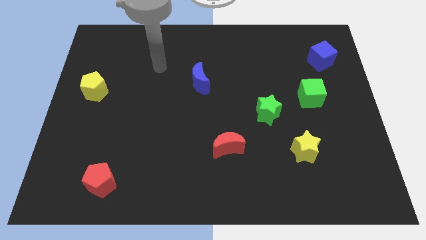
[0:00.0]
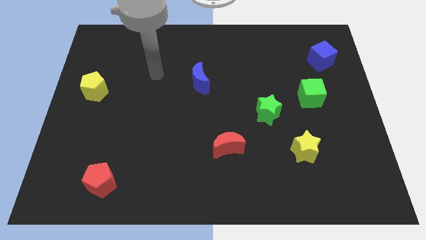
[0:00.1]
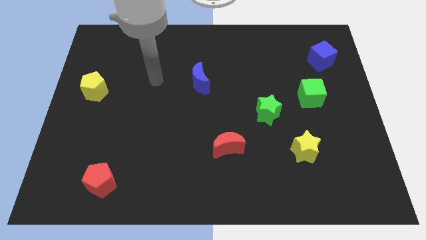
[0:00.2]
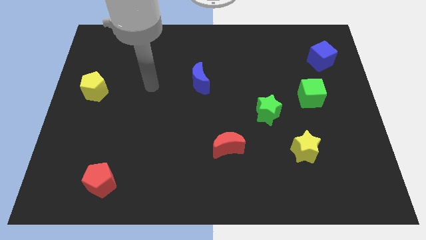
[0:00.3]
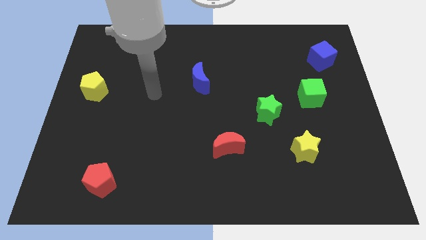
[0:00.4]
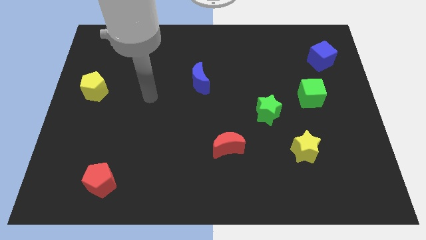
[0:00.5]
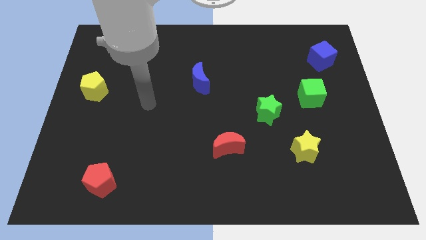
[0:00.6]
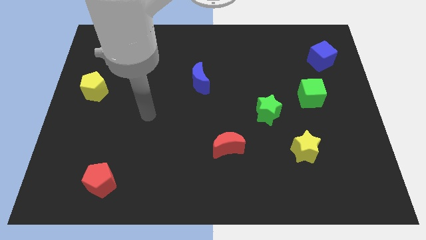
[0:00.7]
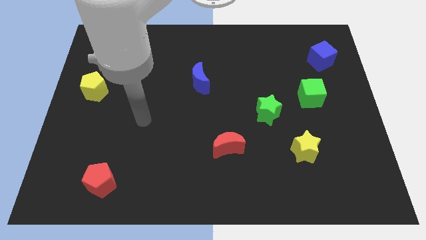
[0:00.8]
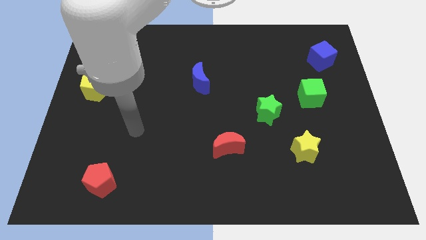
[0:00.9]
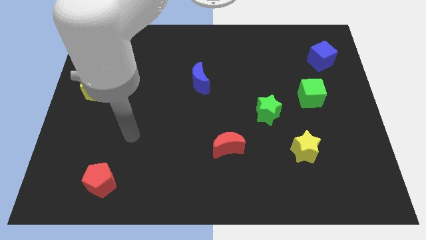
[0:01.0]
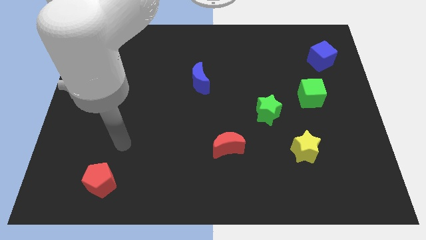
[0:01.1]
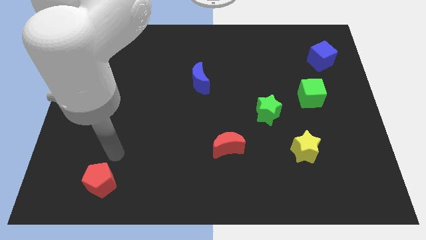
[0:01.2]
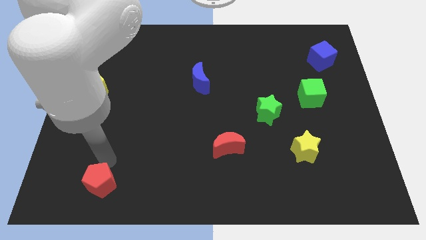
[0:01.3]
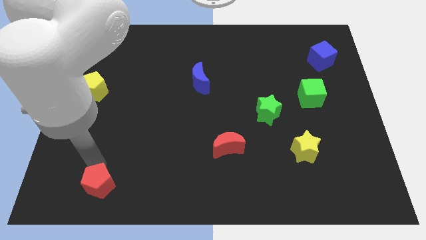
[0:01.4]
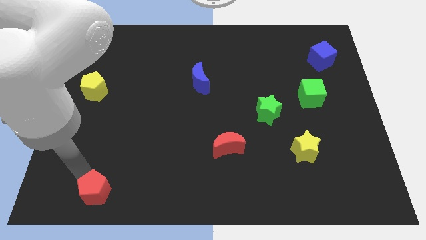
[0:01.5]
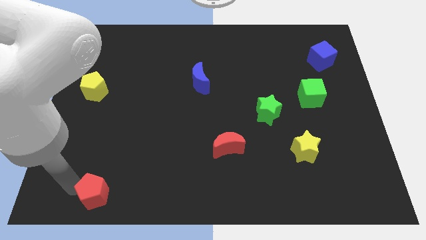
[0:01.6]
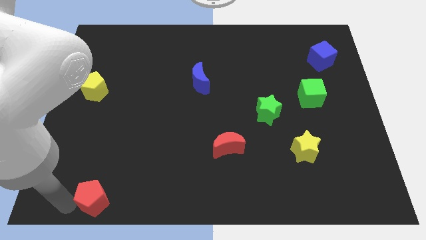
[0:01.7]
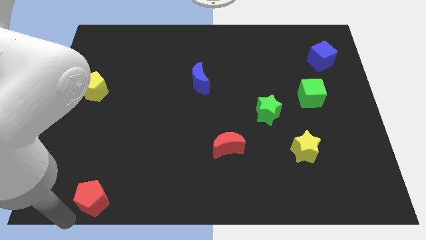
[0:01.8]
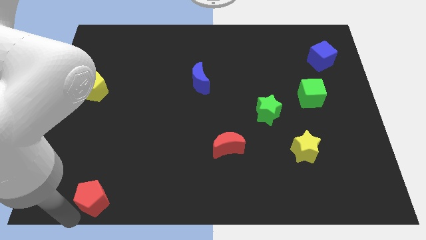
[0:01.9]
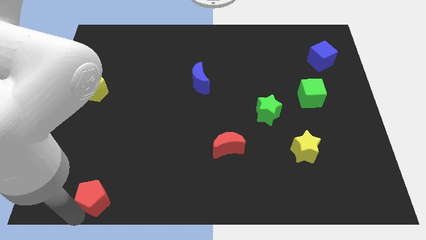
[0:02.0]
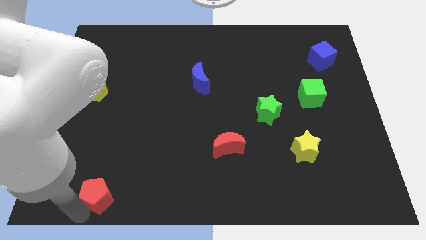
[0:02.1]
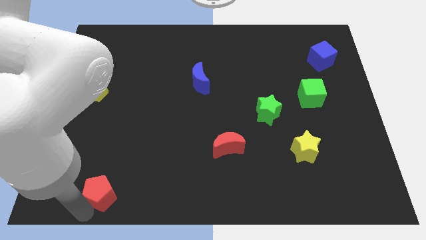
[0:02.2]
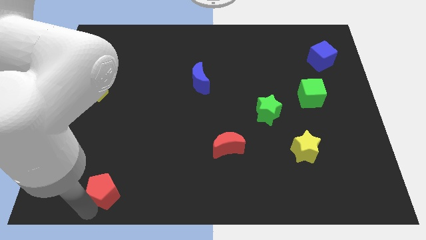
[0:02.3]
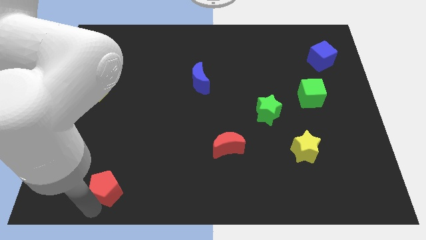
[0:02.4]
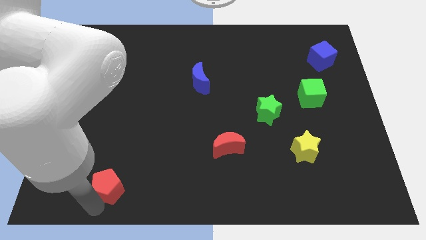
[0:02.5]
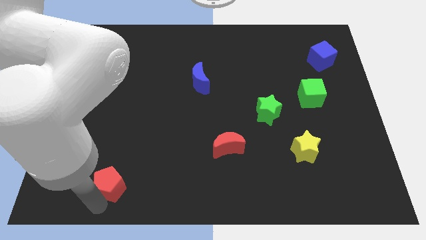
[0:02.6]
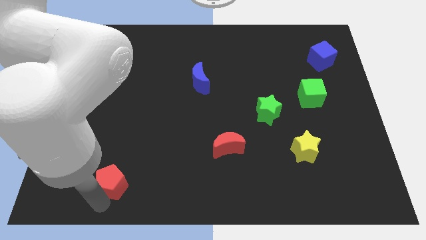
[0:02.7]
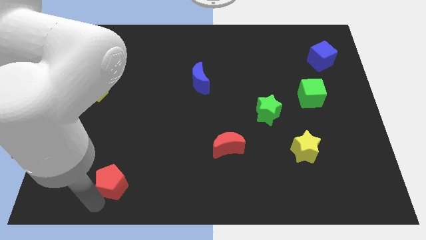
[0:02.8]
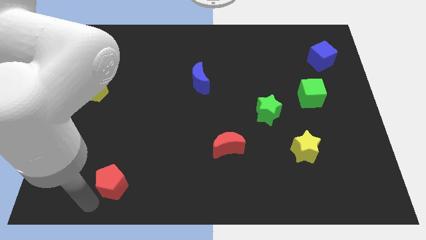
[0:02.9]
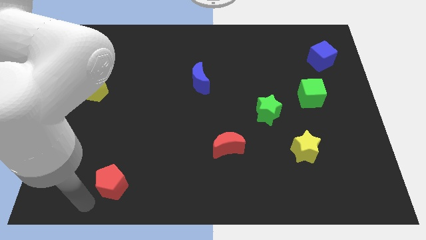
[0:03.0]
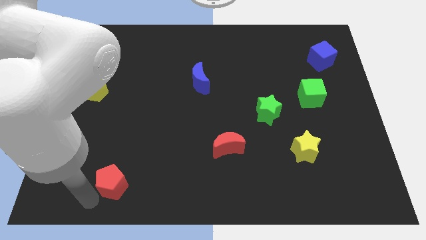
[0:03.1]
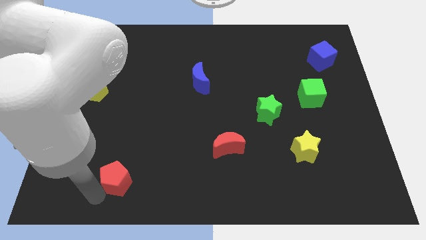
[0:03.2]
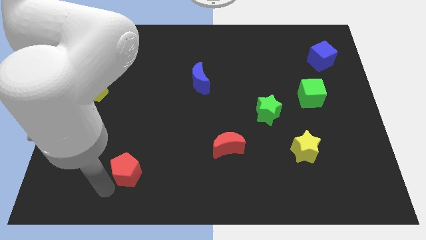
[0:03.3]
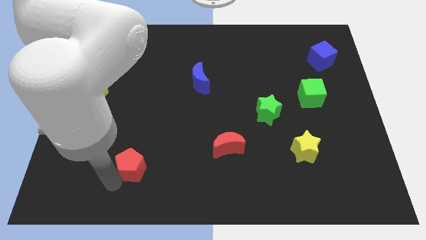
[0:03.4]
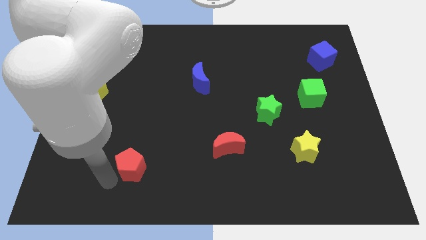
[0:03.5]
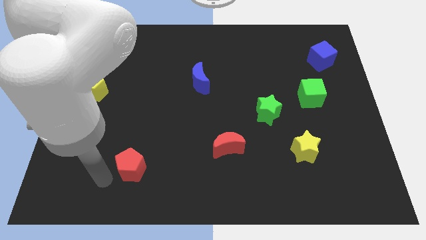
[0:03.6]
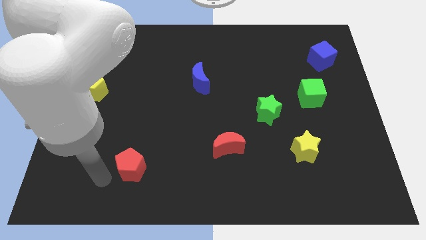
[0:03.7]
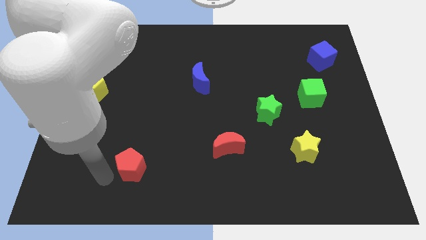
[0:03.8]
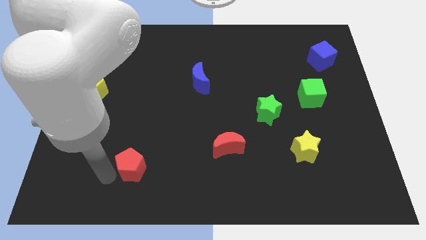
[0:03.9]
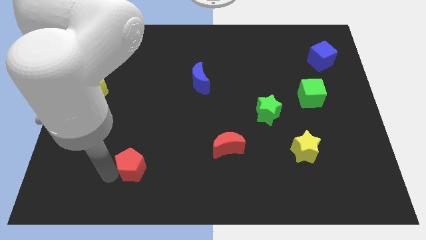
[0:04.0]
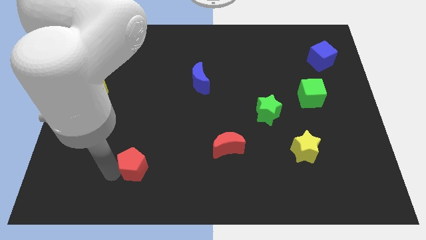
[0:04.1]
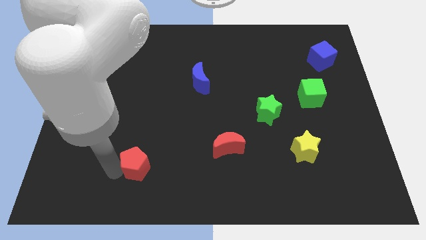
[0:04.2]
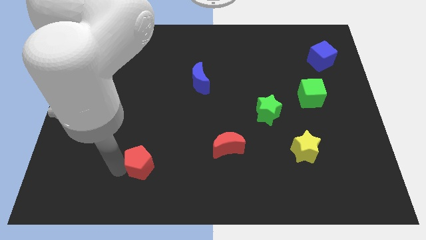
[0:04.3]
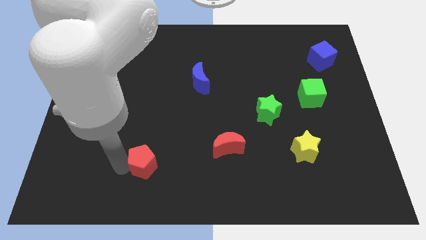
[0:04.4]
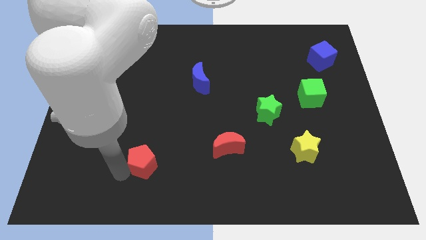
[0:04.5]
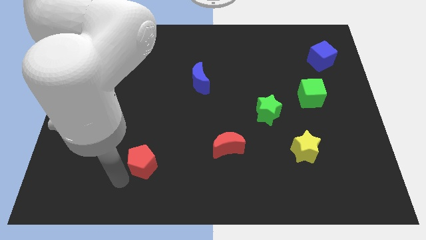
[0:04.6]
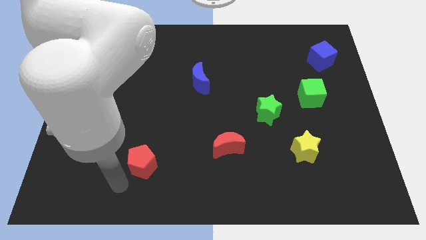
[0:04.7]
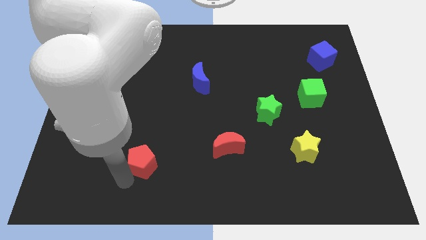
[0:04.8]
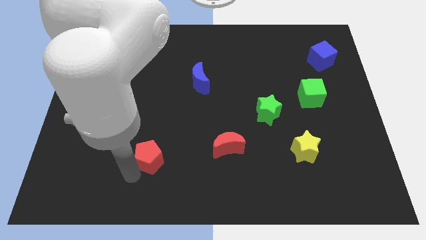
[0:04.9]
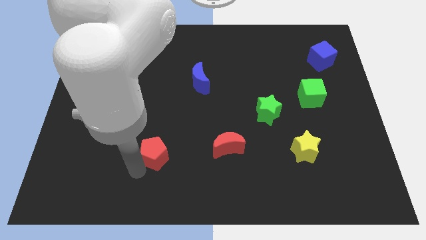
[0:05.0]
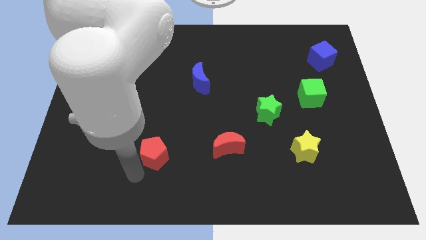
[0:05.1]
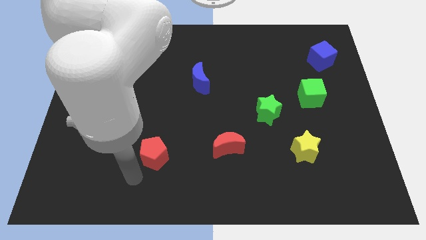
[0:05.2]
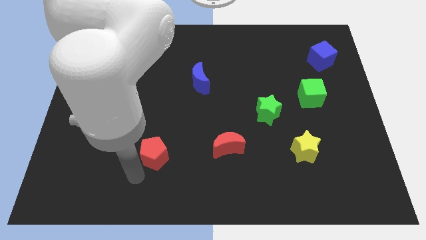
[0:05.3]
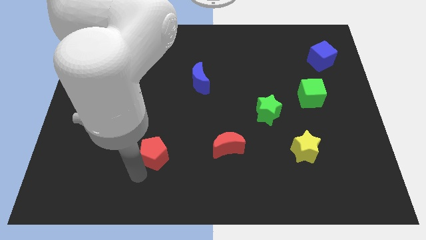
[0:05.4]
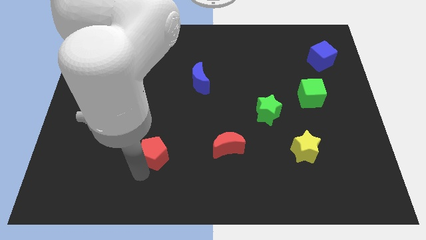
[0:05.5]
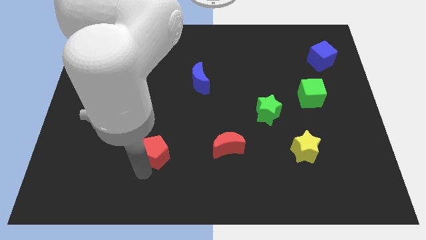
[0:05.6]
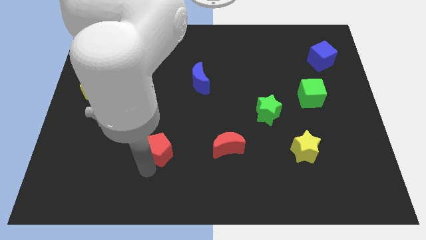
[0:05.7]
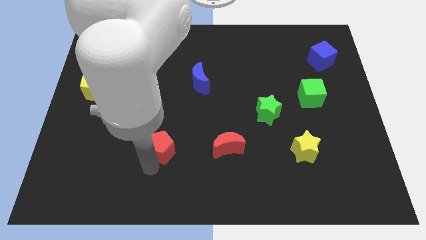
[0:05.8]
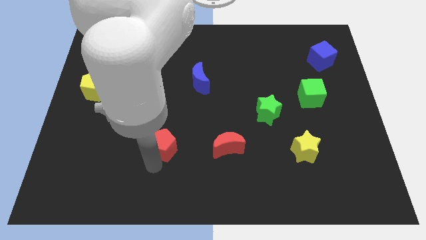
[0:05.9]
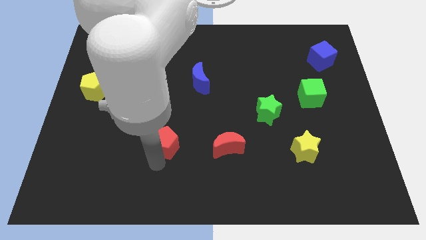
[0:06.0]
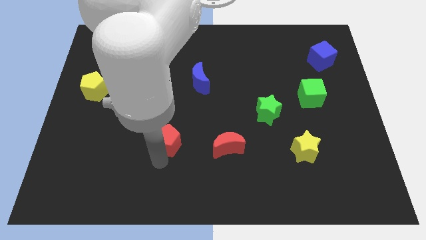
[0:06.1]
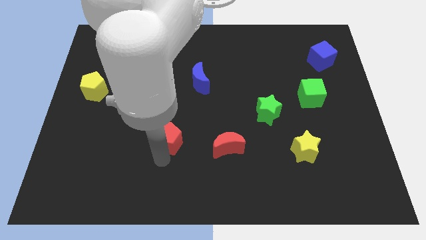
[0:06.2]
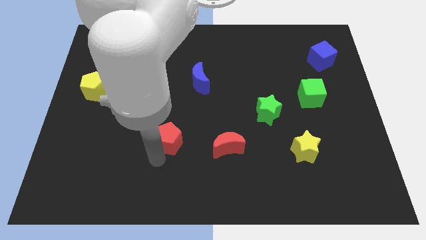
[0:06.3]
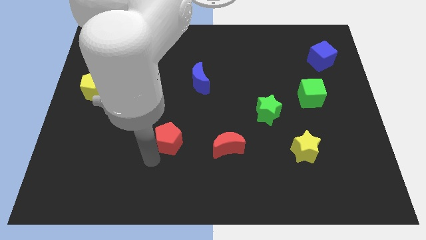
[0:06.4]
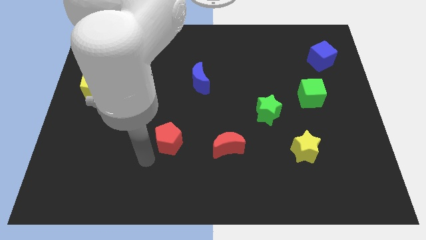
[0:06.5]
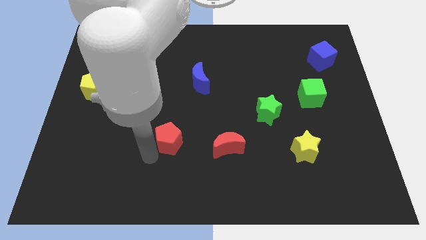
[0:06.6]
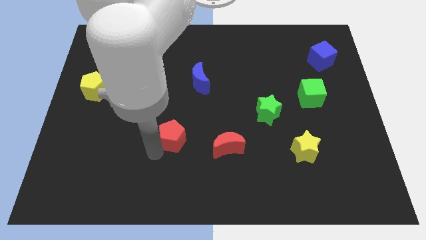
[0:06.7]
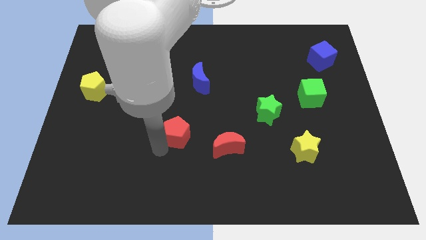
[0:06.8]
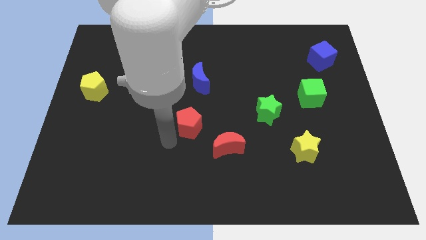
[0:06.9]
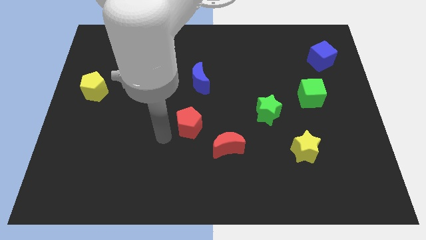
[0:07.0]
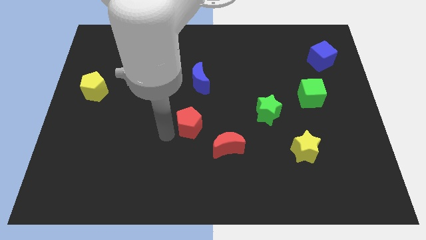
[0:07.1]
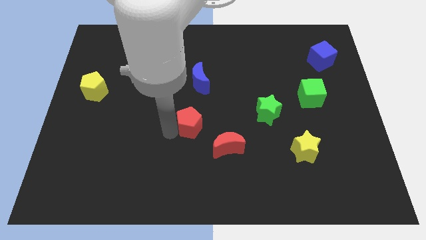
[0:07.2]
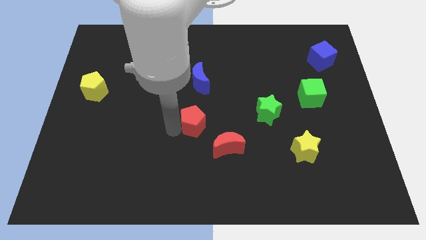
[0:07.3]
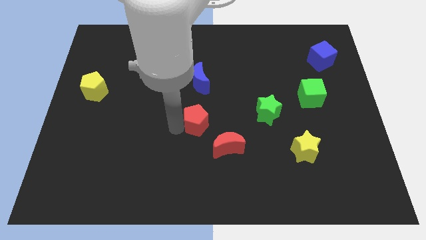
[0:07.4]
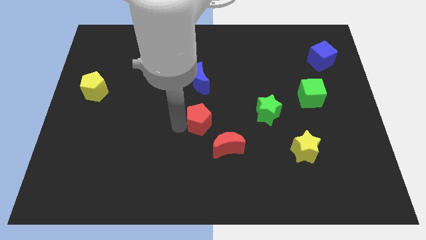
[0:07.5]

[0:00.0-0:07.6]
move the red pentagon to the left of the green star
